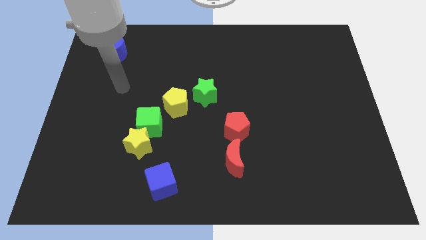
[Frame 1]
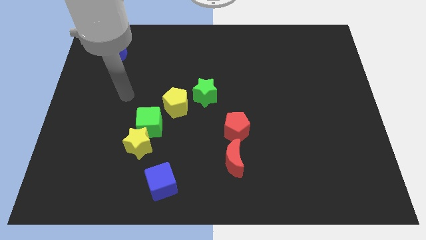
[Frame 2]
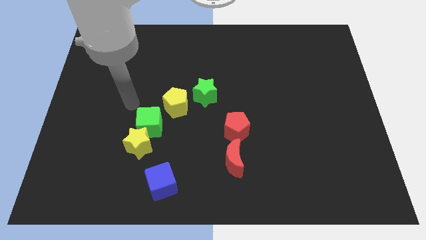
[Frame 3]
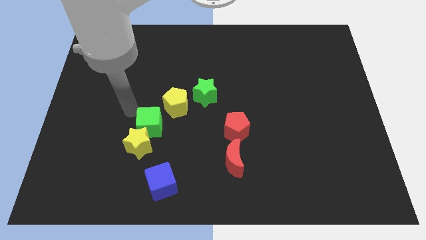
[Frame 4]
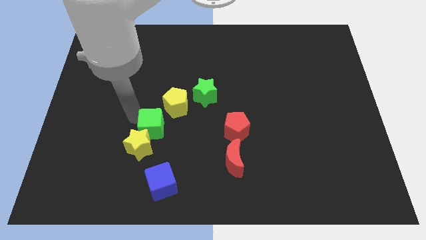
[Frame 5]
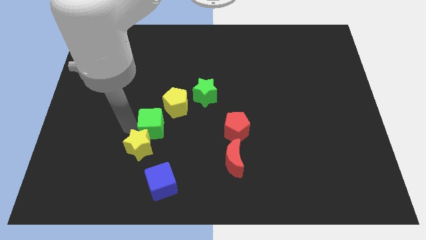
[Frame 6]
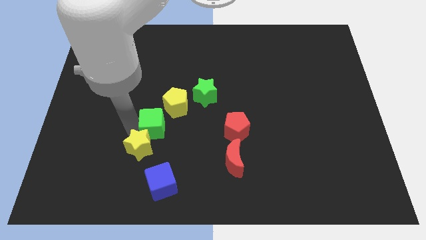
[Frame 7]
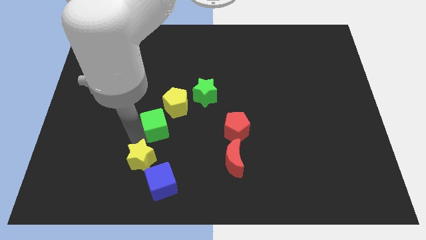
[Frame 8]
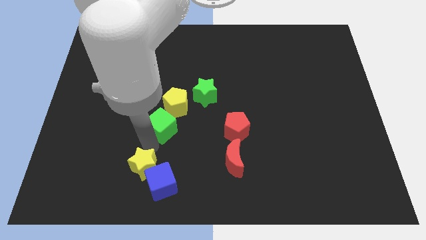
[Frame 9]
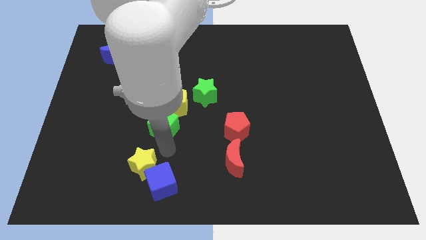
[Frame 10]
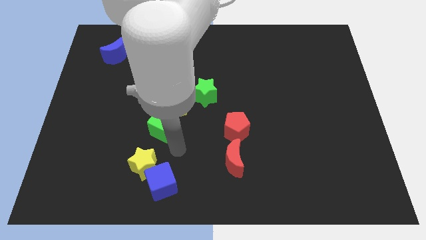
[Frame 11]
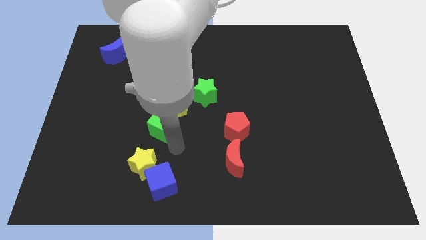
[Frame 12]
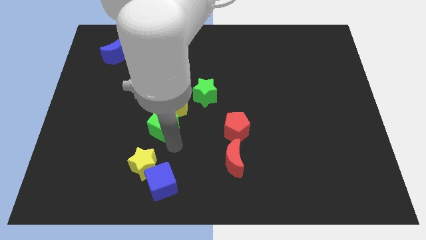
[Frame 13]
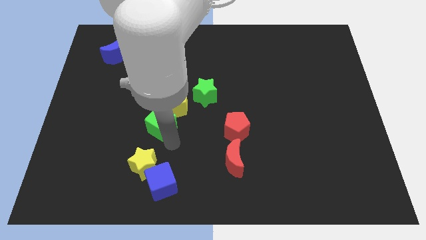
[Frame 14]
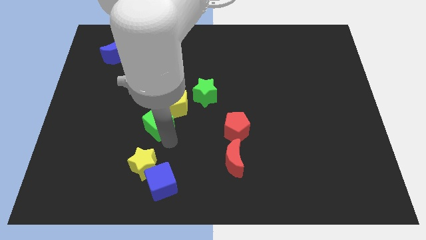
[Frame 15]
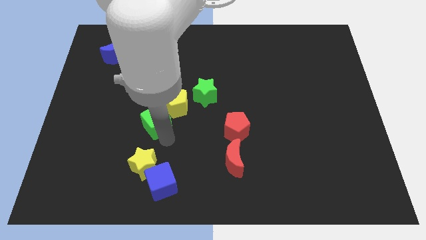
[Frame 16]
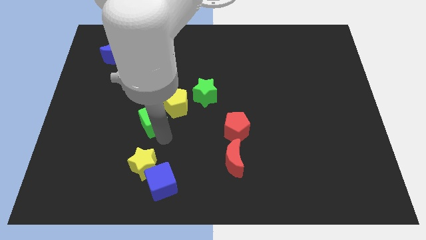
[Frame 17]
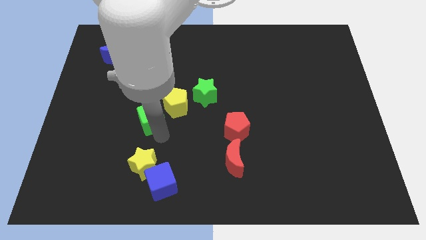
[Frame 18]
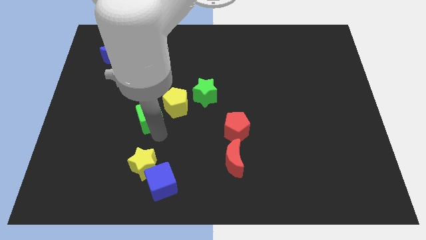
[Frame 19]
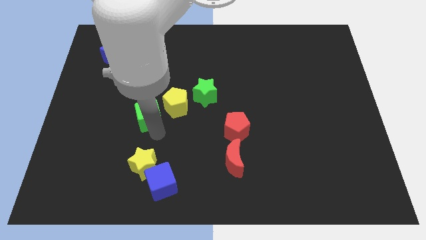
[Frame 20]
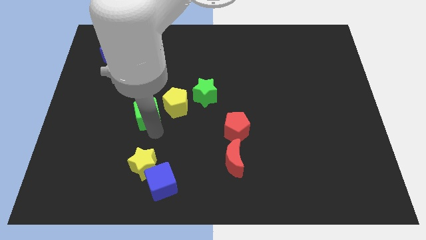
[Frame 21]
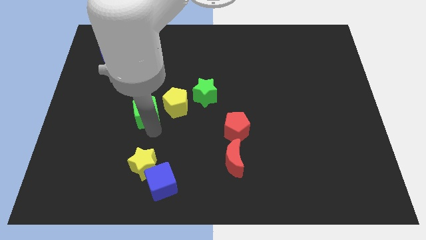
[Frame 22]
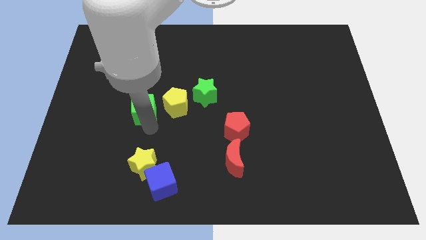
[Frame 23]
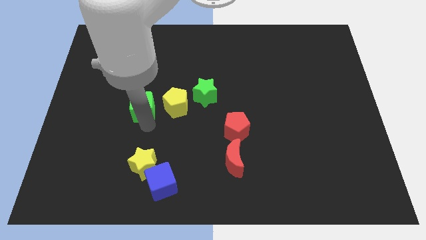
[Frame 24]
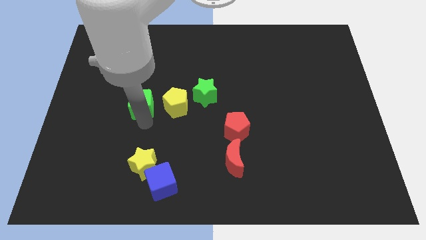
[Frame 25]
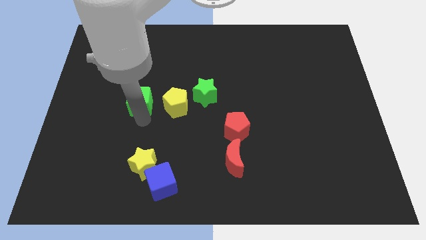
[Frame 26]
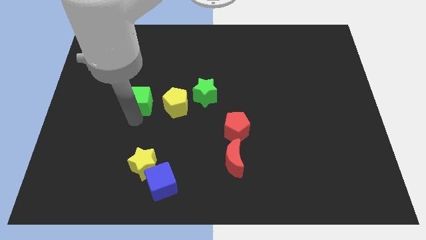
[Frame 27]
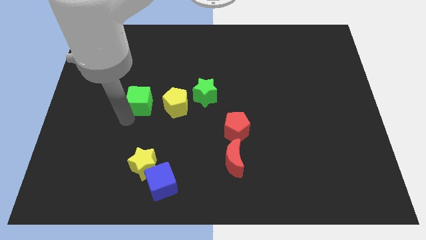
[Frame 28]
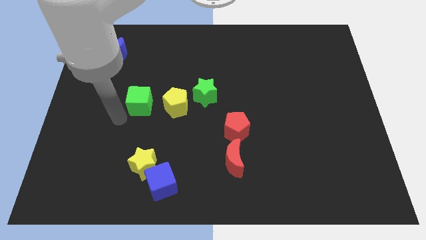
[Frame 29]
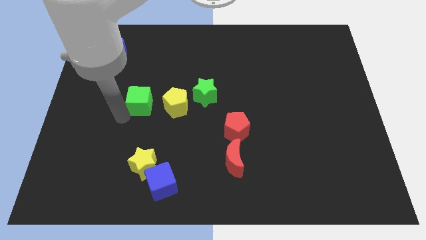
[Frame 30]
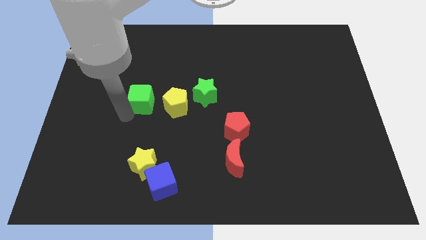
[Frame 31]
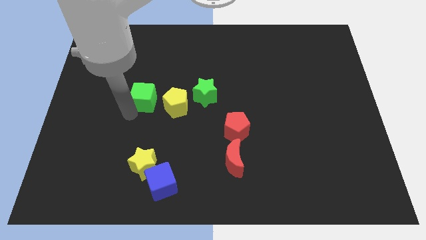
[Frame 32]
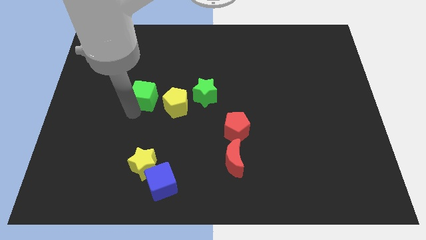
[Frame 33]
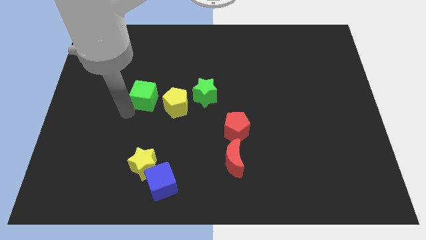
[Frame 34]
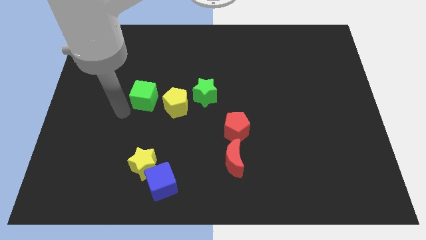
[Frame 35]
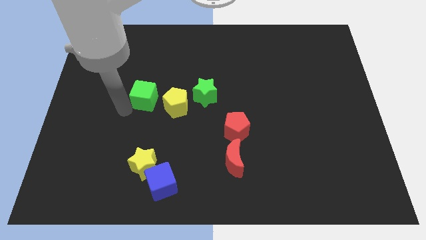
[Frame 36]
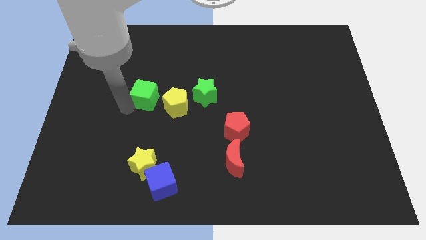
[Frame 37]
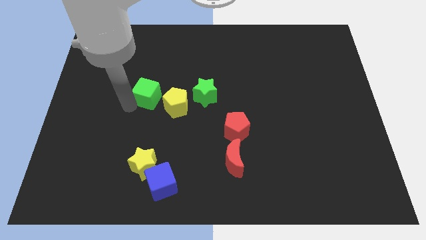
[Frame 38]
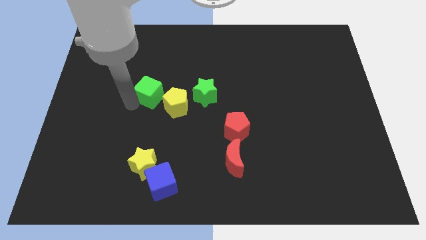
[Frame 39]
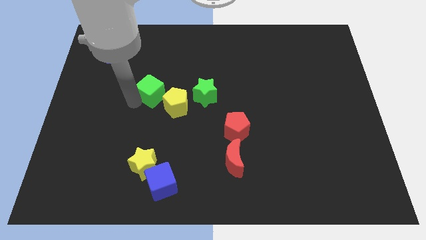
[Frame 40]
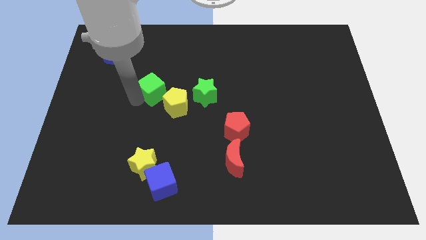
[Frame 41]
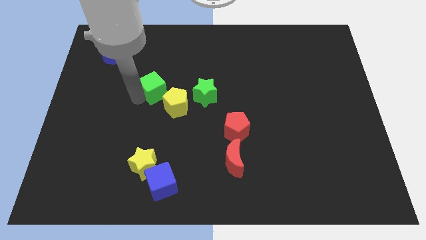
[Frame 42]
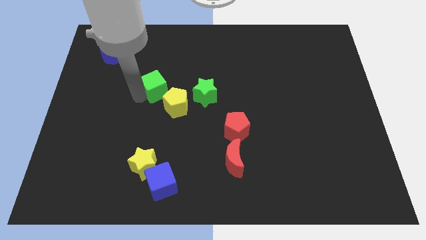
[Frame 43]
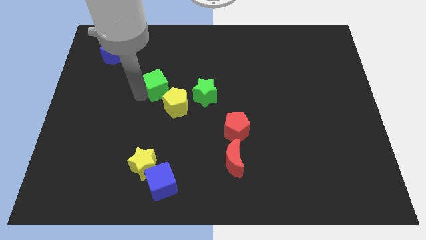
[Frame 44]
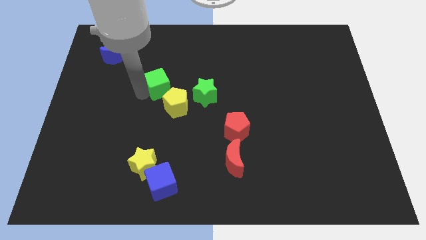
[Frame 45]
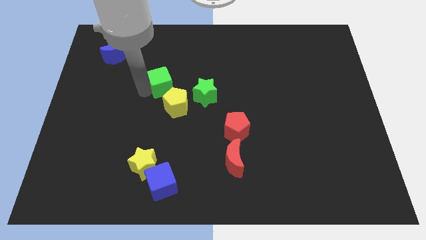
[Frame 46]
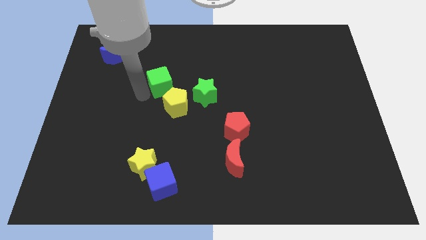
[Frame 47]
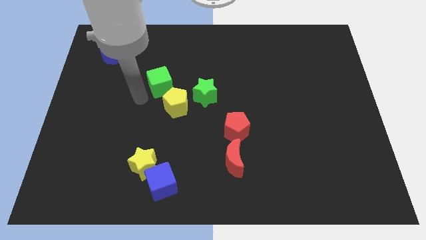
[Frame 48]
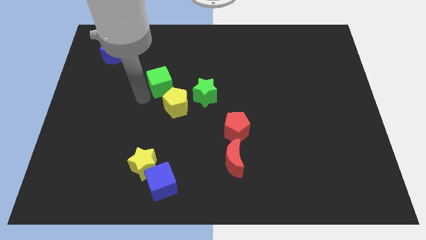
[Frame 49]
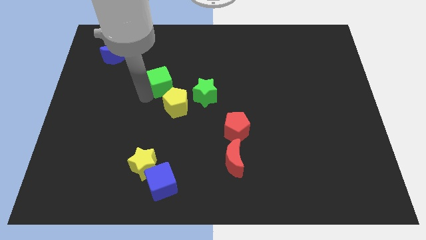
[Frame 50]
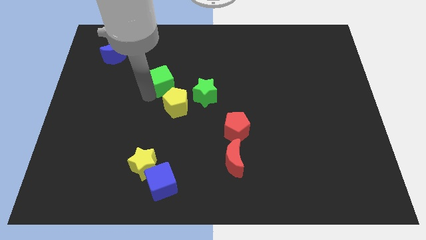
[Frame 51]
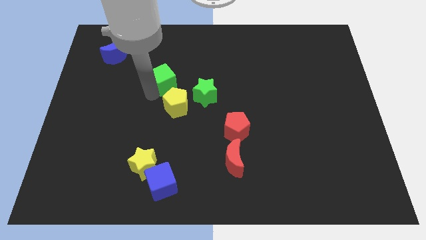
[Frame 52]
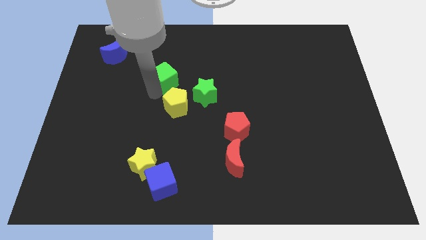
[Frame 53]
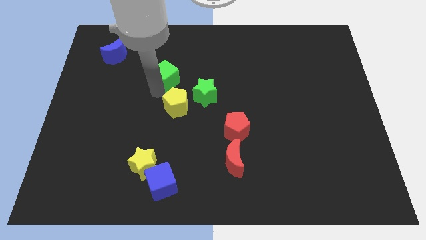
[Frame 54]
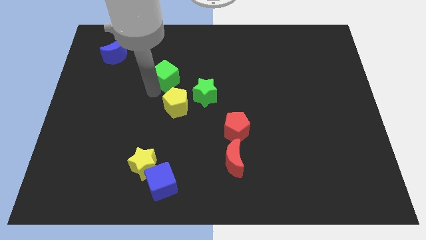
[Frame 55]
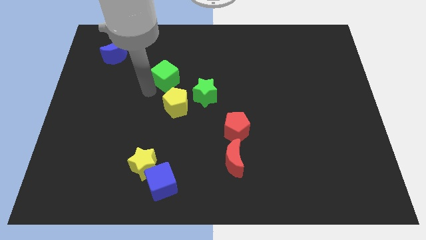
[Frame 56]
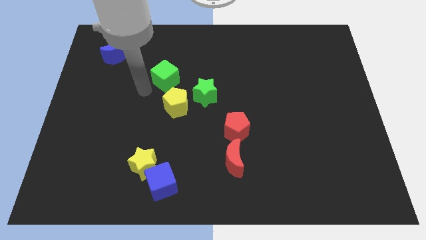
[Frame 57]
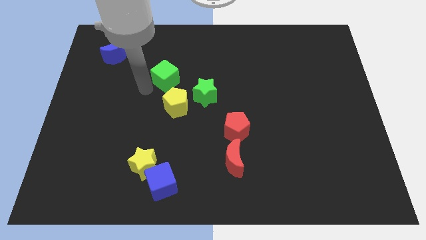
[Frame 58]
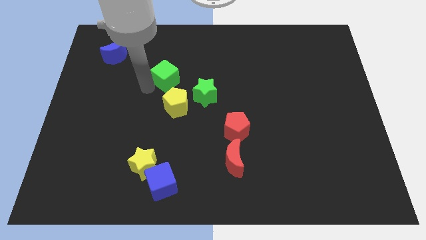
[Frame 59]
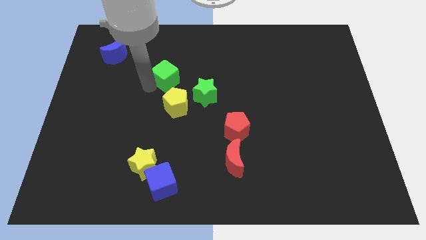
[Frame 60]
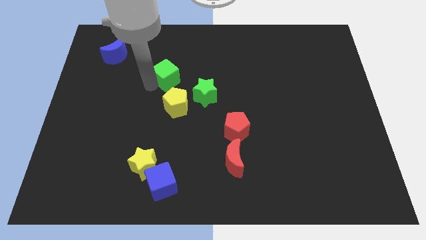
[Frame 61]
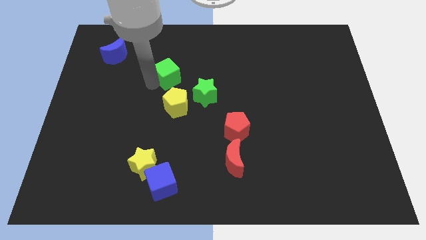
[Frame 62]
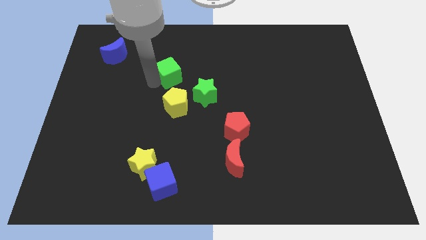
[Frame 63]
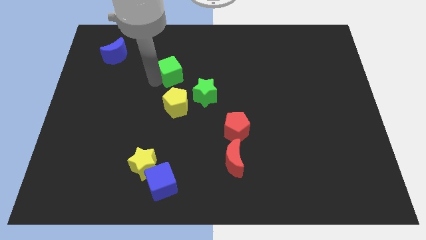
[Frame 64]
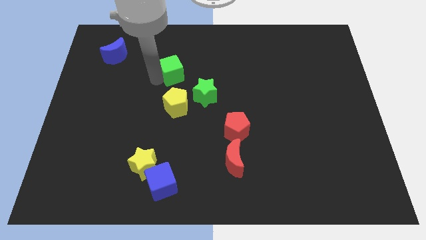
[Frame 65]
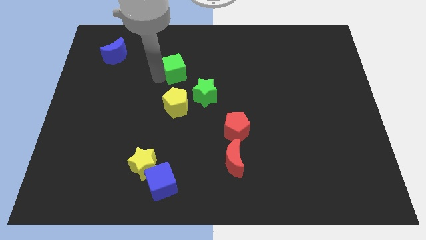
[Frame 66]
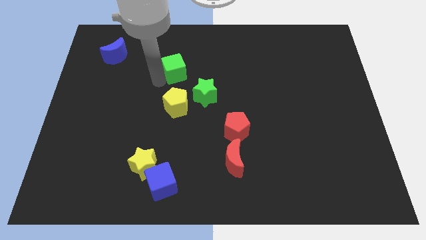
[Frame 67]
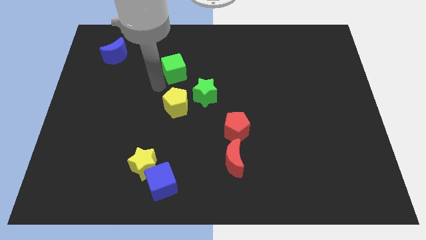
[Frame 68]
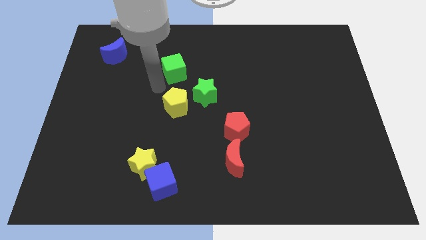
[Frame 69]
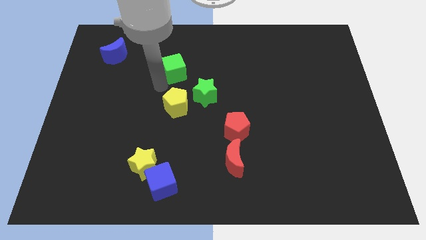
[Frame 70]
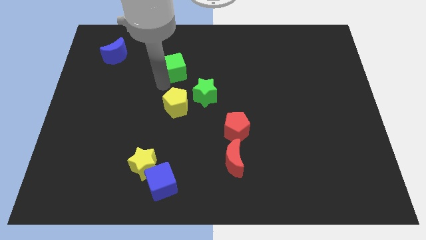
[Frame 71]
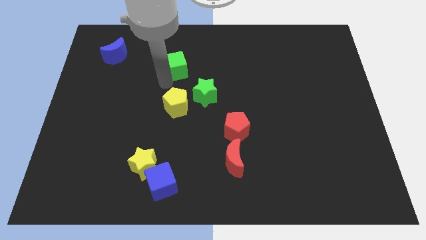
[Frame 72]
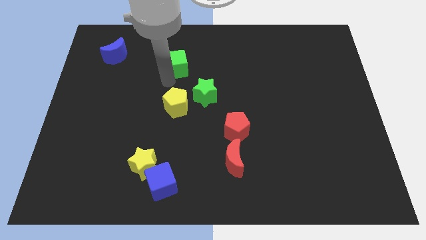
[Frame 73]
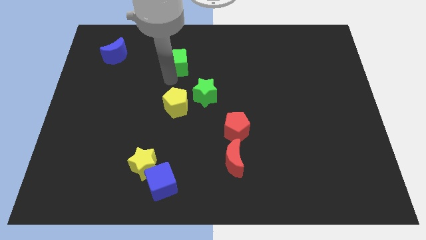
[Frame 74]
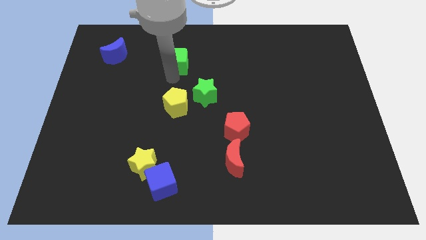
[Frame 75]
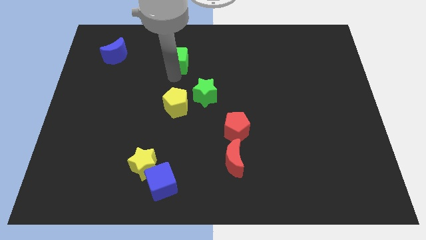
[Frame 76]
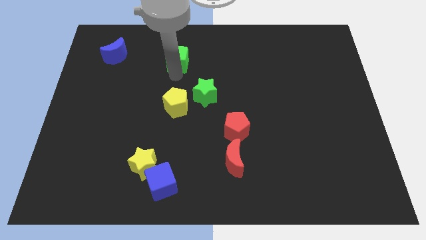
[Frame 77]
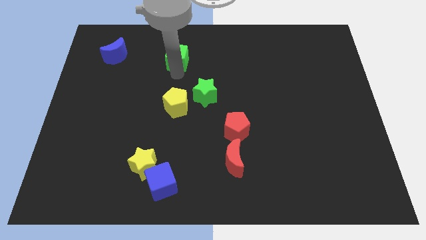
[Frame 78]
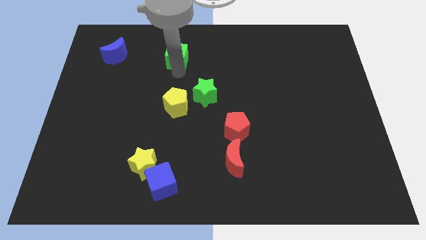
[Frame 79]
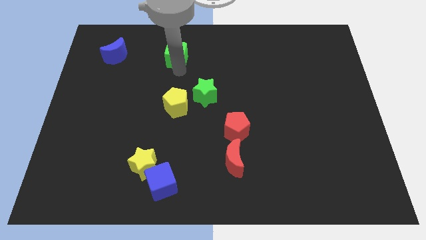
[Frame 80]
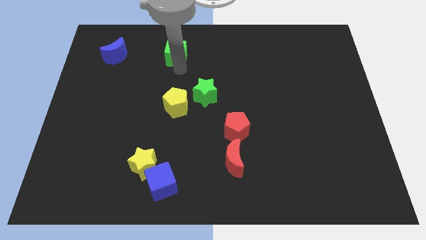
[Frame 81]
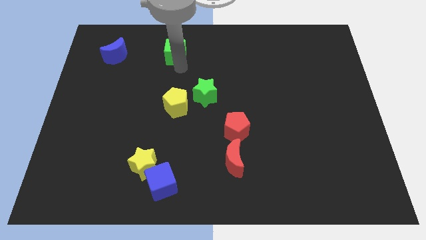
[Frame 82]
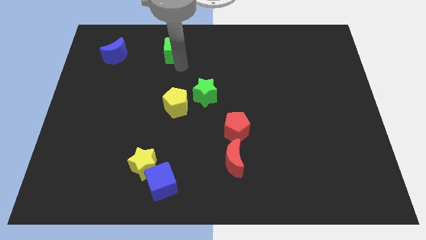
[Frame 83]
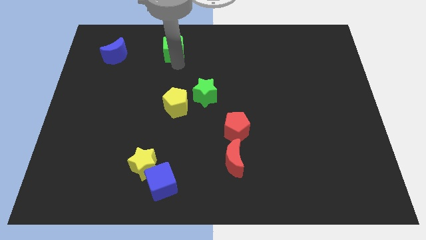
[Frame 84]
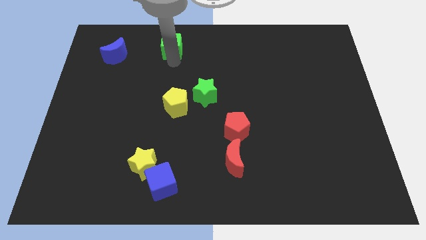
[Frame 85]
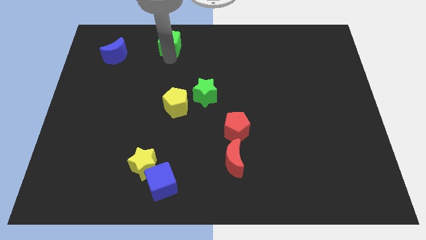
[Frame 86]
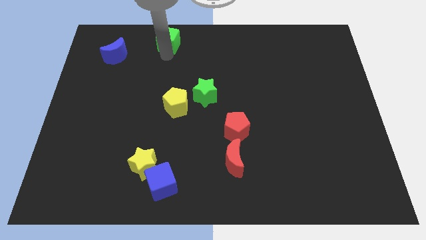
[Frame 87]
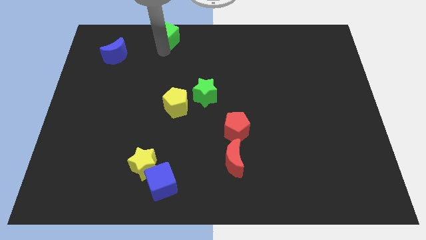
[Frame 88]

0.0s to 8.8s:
slide the green cube to the top
